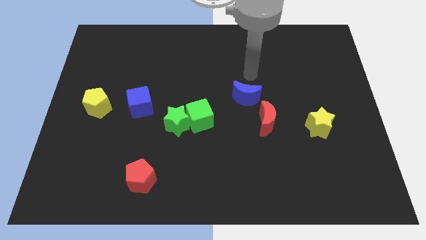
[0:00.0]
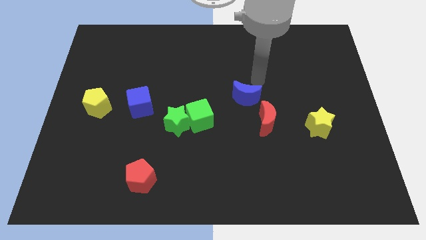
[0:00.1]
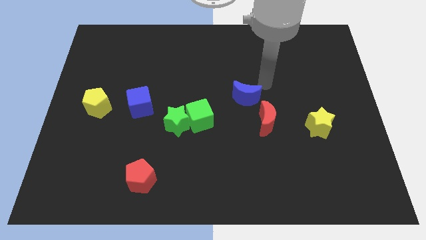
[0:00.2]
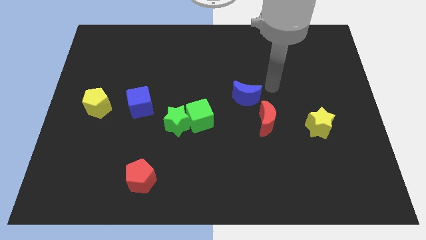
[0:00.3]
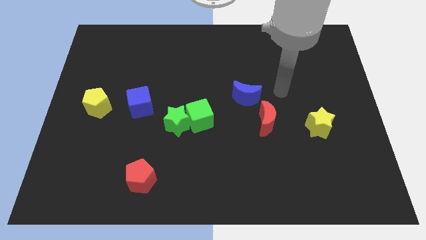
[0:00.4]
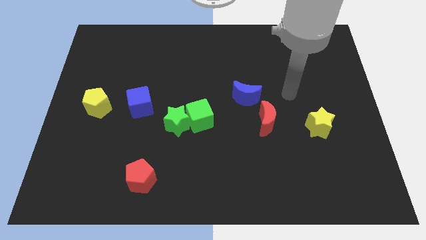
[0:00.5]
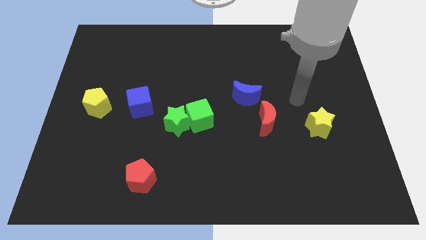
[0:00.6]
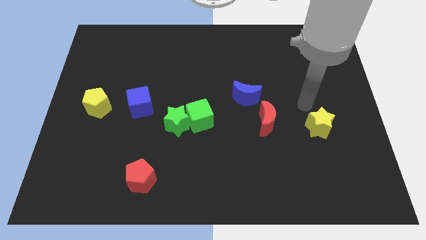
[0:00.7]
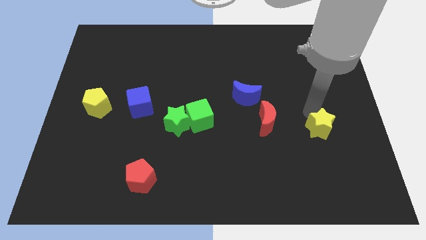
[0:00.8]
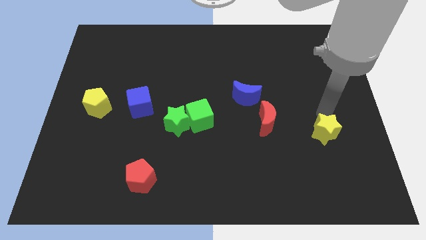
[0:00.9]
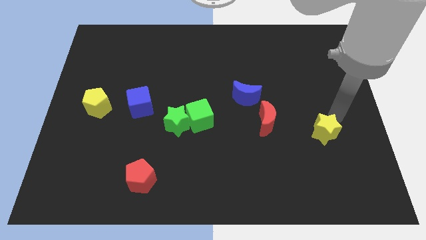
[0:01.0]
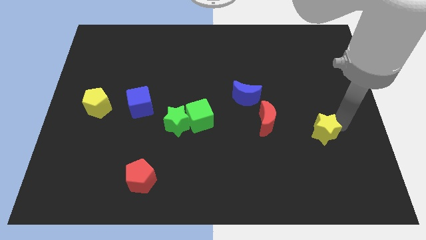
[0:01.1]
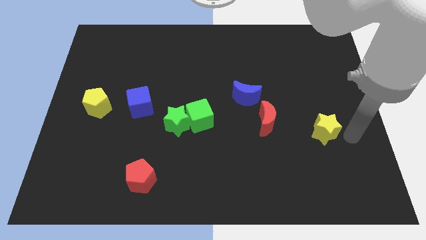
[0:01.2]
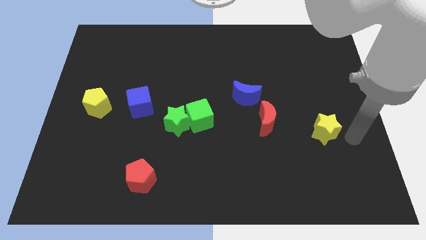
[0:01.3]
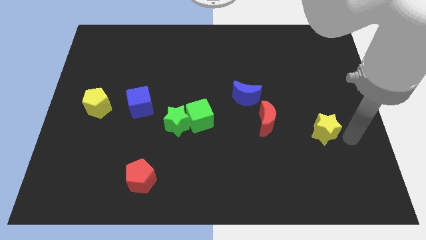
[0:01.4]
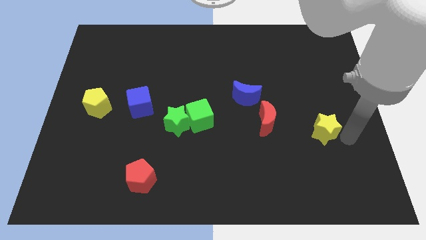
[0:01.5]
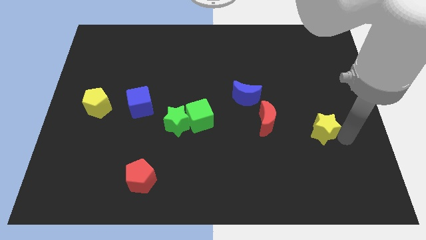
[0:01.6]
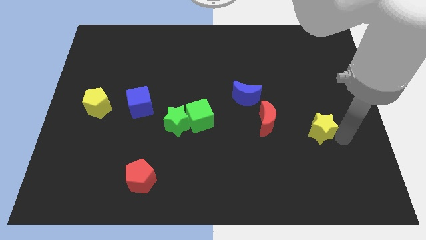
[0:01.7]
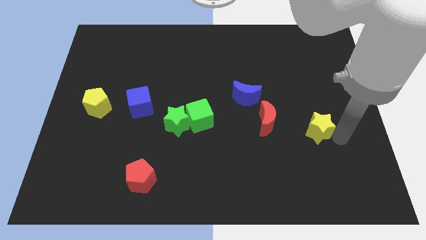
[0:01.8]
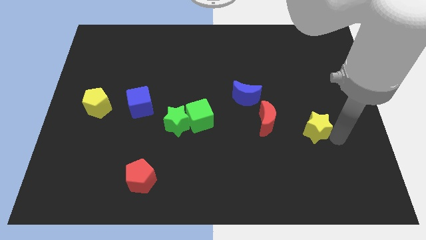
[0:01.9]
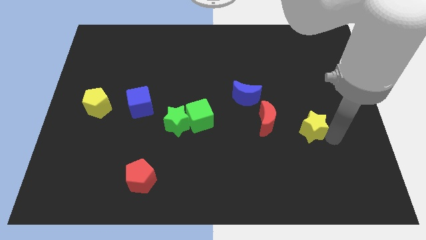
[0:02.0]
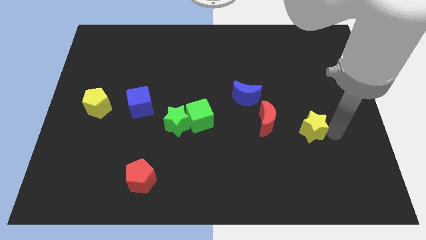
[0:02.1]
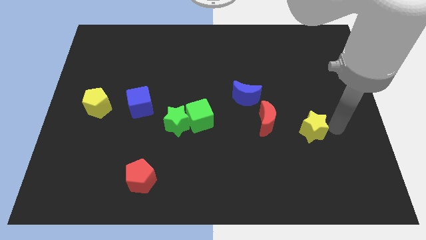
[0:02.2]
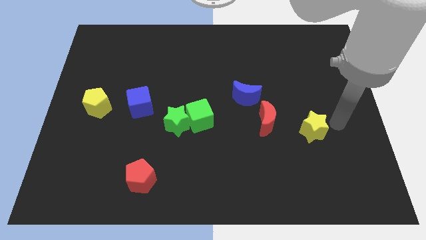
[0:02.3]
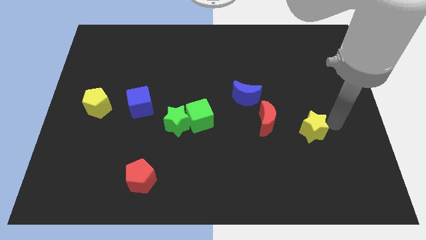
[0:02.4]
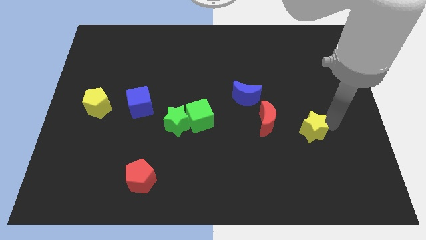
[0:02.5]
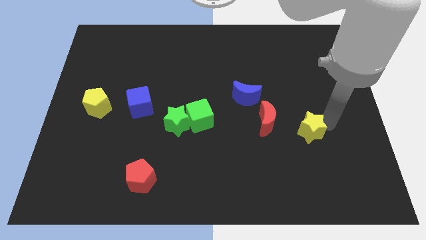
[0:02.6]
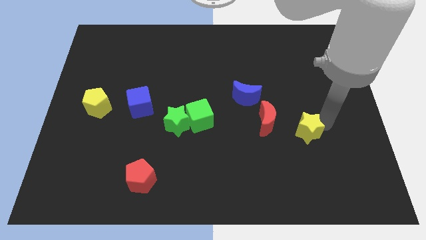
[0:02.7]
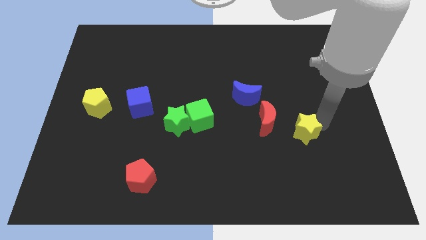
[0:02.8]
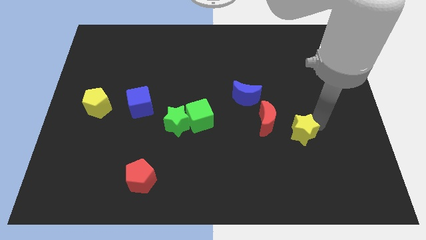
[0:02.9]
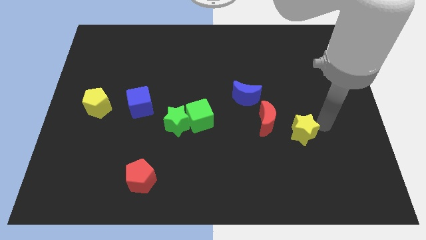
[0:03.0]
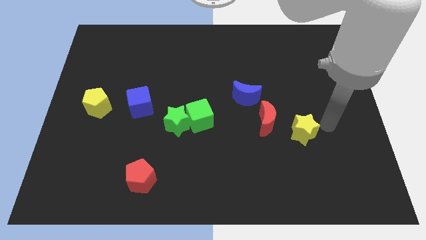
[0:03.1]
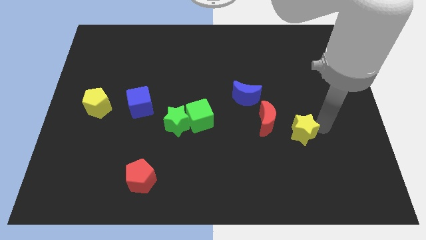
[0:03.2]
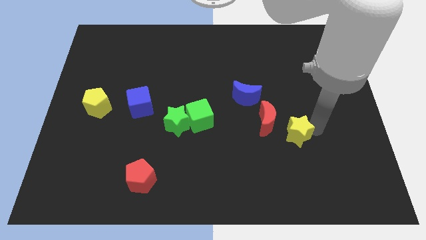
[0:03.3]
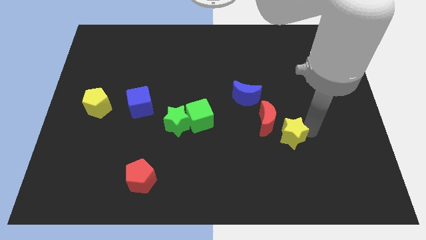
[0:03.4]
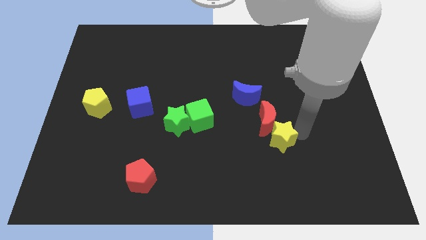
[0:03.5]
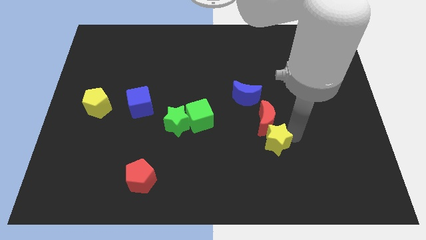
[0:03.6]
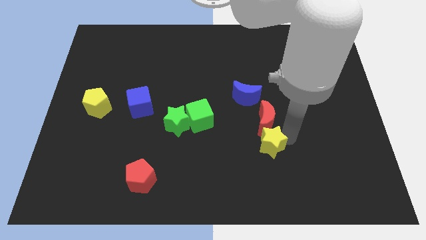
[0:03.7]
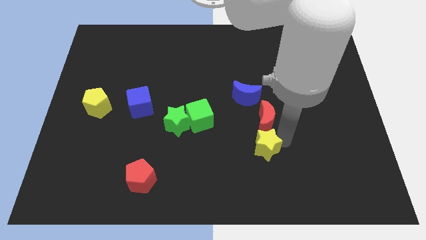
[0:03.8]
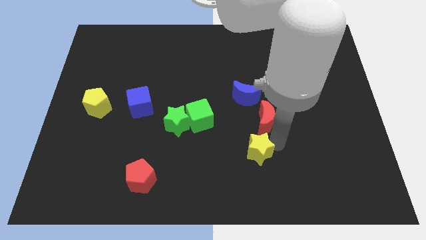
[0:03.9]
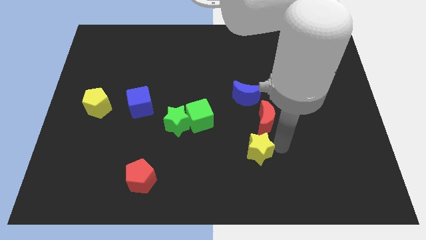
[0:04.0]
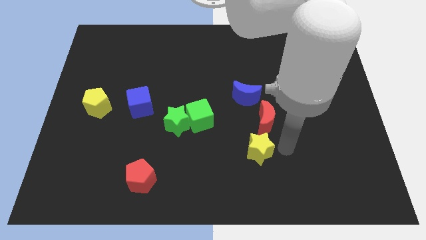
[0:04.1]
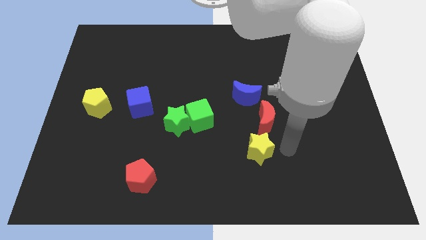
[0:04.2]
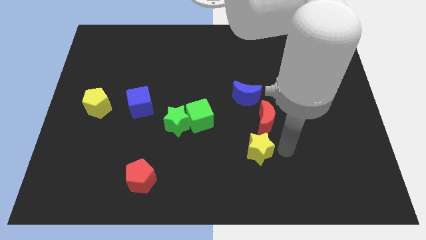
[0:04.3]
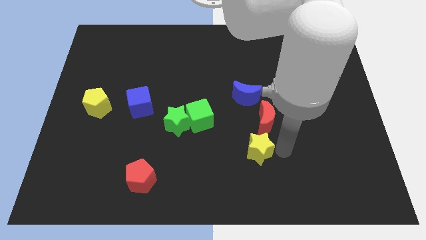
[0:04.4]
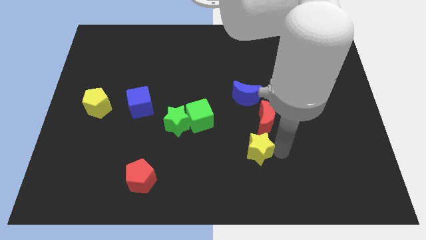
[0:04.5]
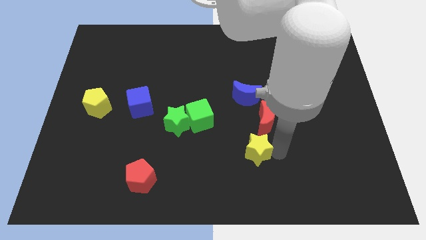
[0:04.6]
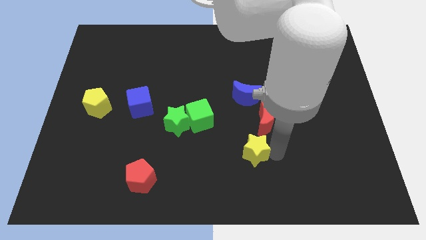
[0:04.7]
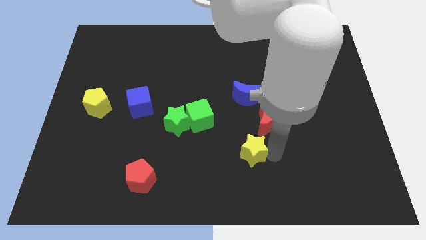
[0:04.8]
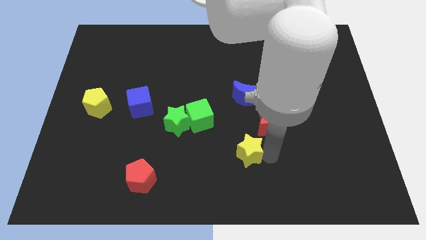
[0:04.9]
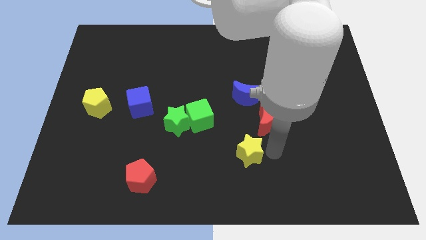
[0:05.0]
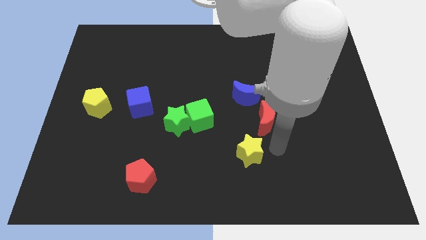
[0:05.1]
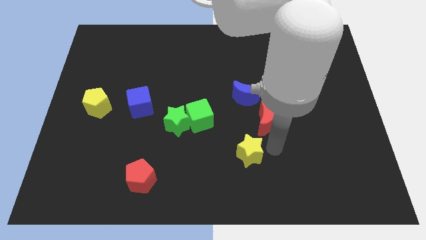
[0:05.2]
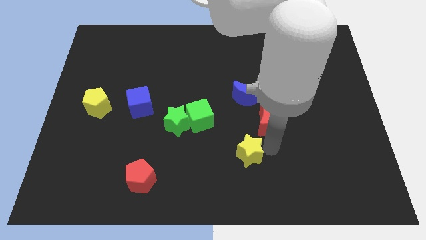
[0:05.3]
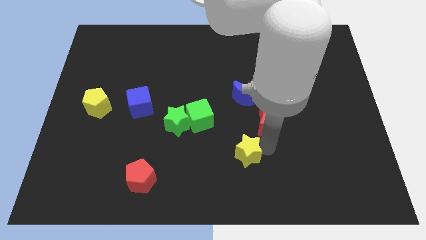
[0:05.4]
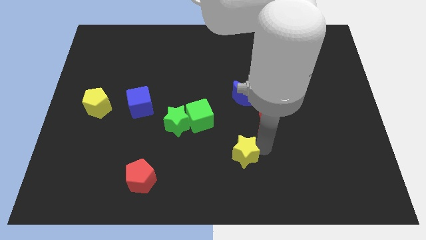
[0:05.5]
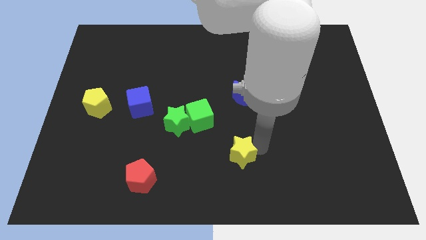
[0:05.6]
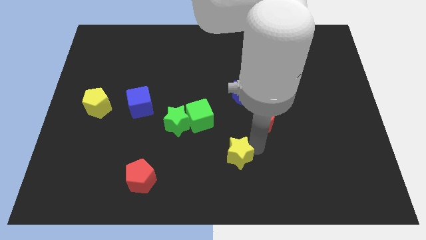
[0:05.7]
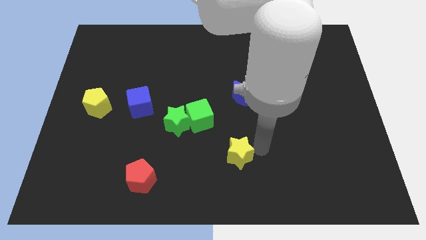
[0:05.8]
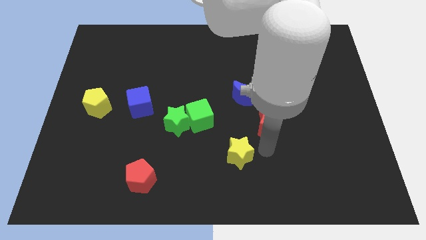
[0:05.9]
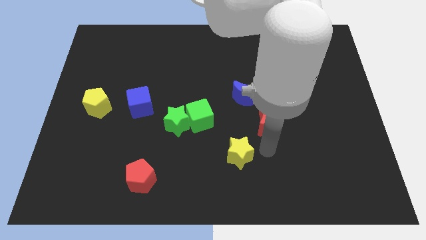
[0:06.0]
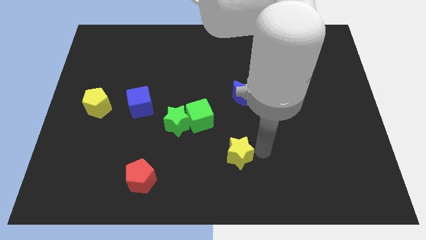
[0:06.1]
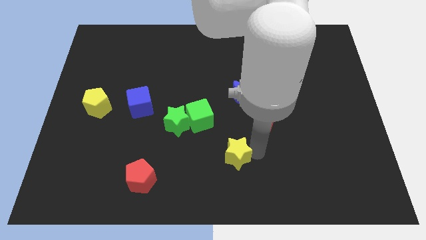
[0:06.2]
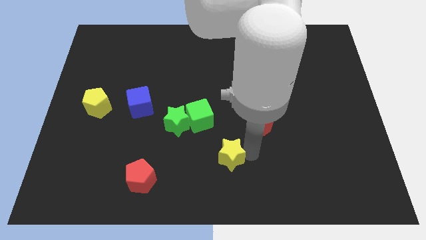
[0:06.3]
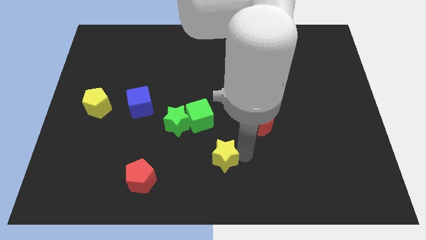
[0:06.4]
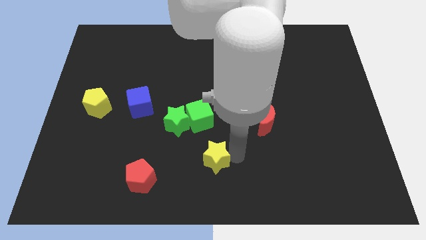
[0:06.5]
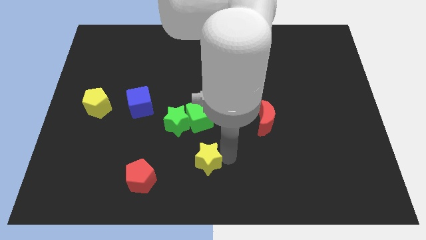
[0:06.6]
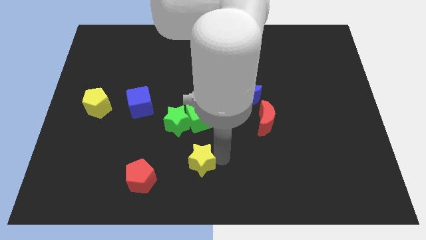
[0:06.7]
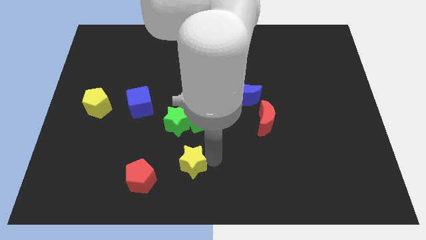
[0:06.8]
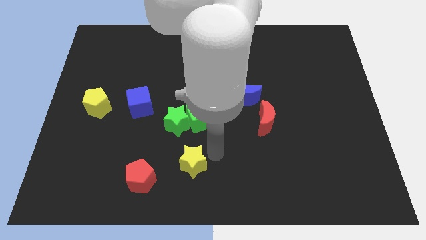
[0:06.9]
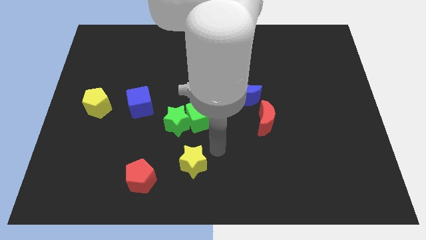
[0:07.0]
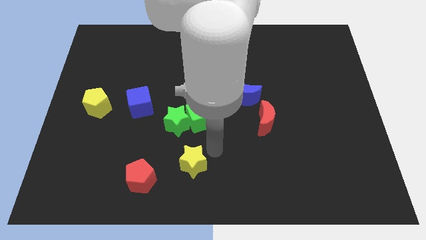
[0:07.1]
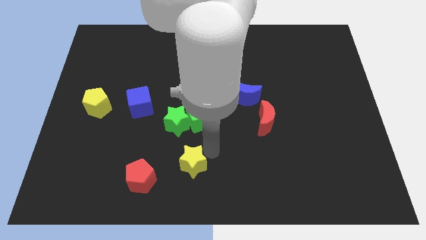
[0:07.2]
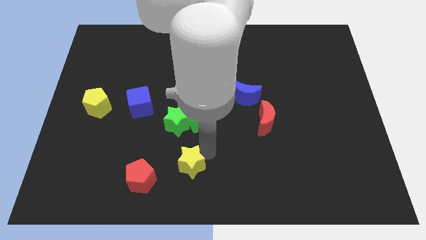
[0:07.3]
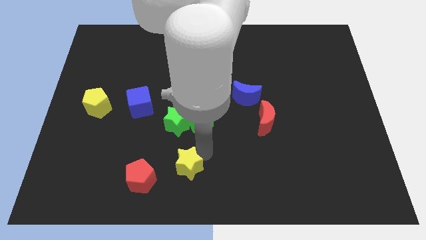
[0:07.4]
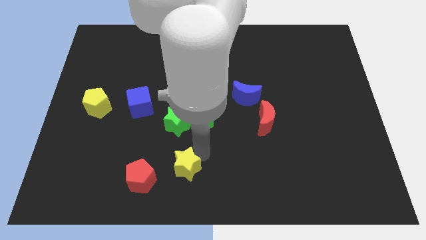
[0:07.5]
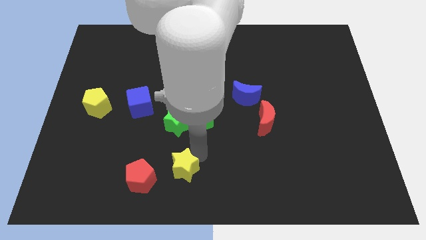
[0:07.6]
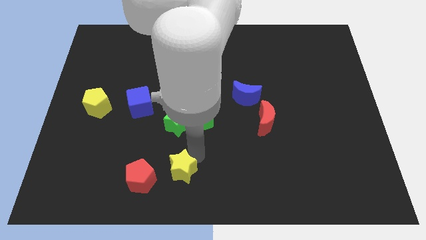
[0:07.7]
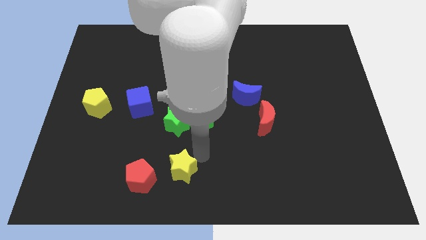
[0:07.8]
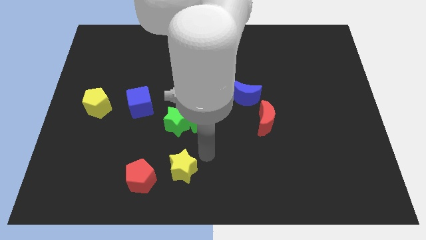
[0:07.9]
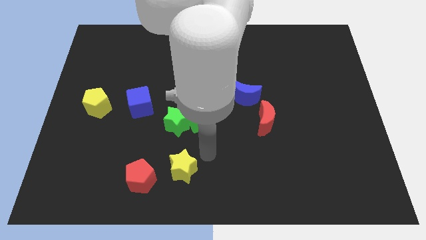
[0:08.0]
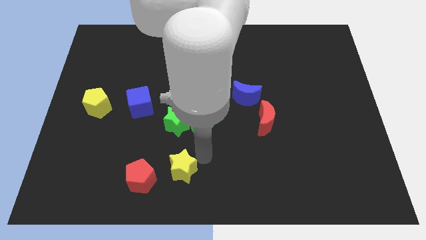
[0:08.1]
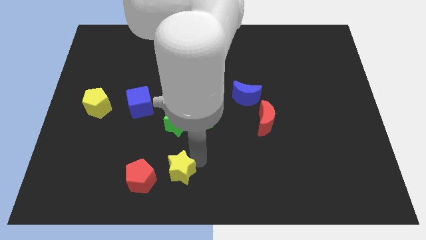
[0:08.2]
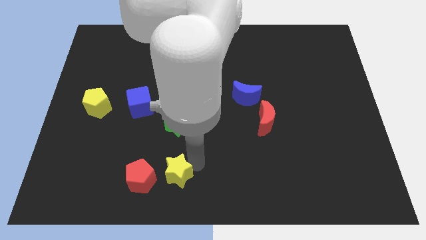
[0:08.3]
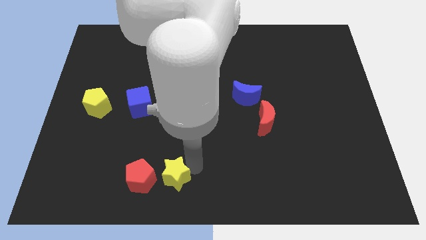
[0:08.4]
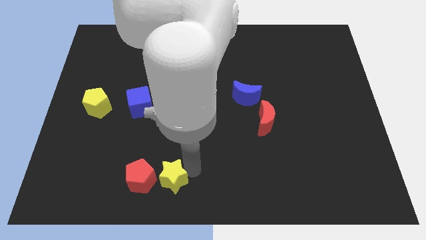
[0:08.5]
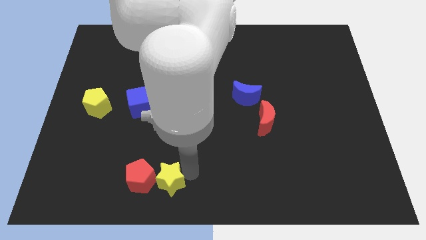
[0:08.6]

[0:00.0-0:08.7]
move the yellow star to the red pentagon
